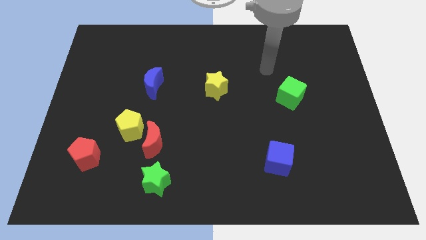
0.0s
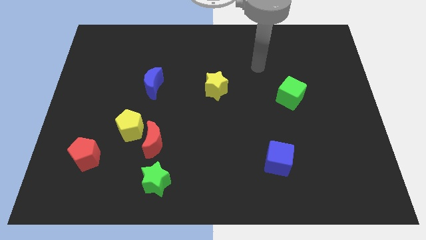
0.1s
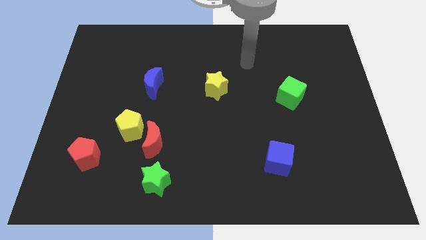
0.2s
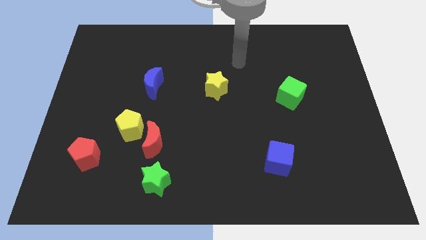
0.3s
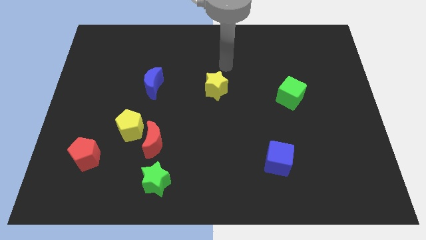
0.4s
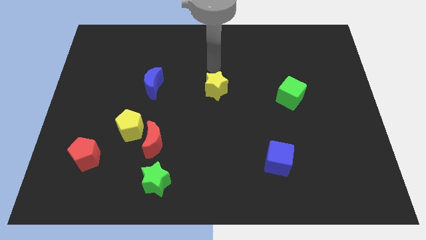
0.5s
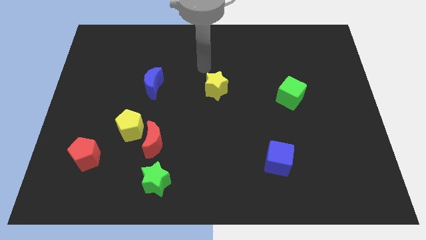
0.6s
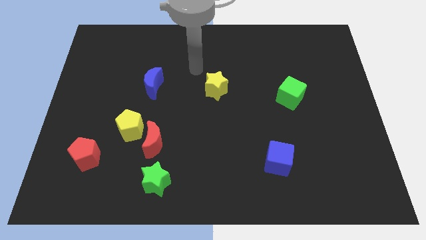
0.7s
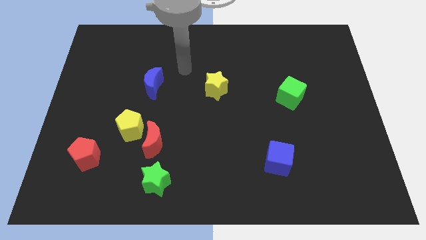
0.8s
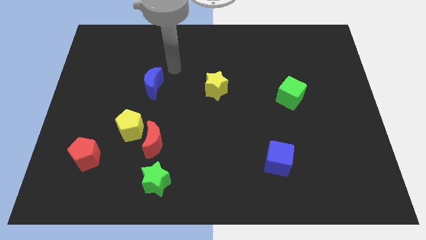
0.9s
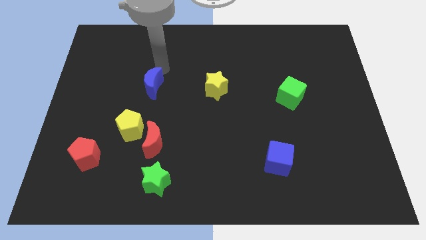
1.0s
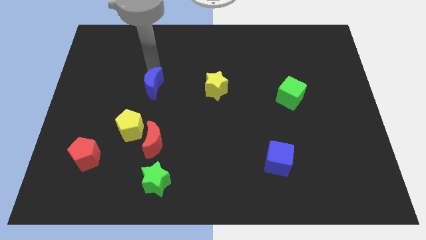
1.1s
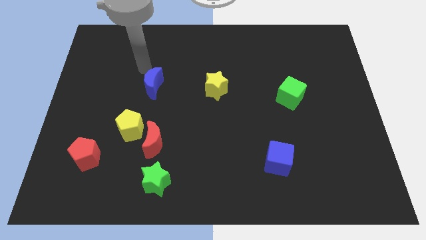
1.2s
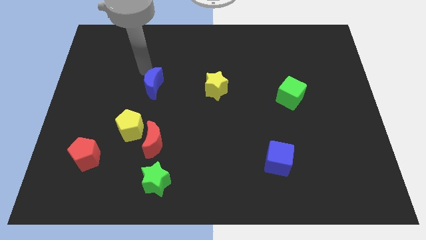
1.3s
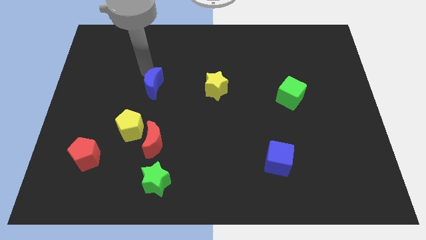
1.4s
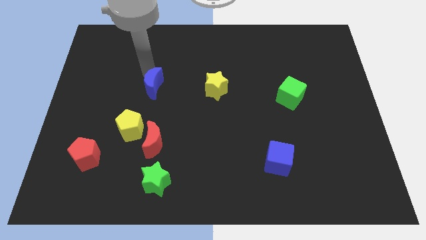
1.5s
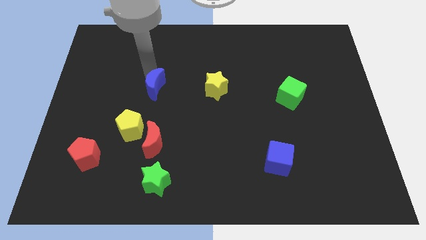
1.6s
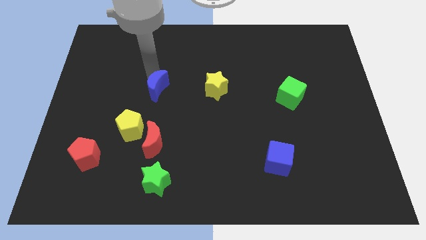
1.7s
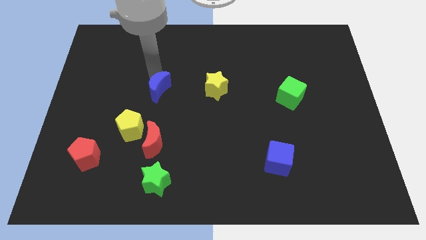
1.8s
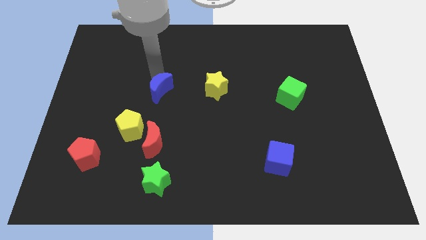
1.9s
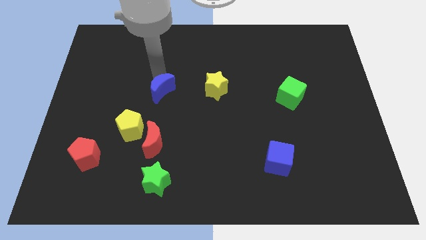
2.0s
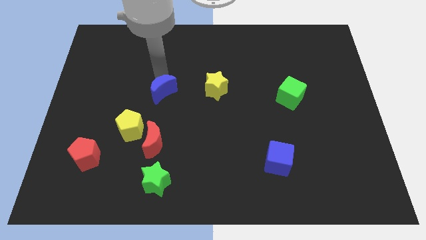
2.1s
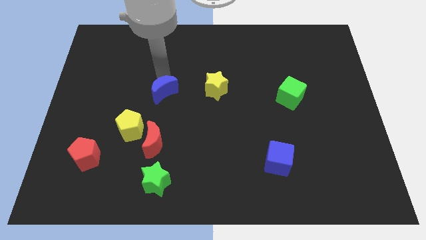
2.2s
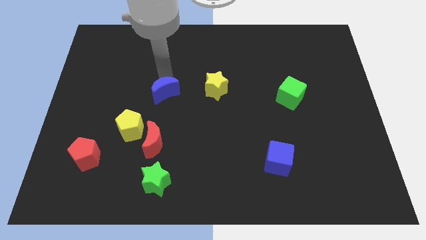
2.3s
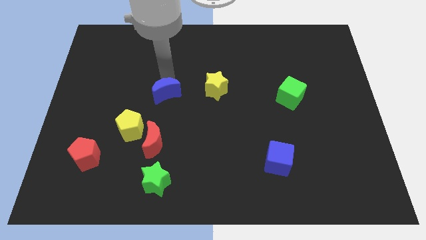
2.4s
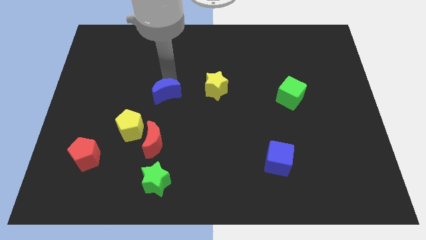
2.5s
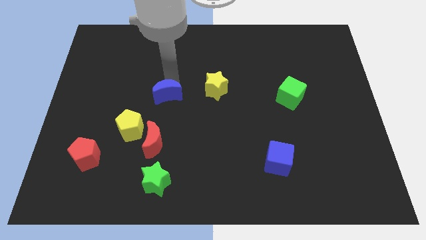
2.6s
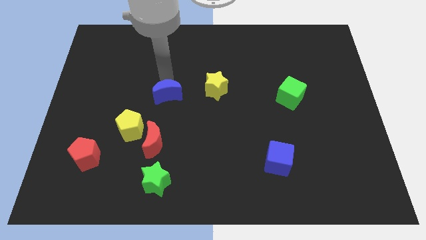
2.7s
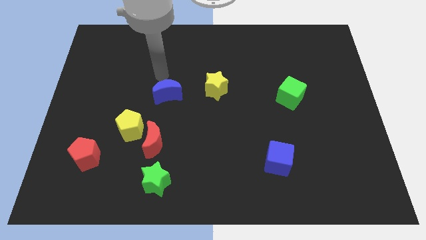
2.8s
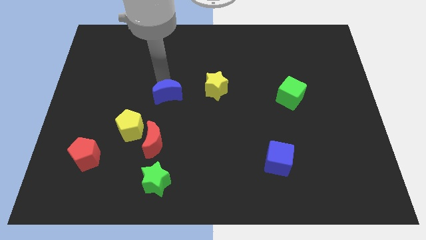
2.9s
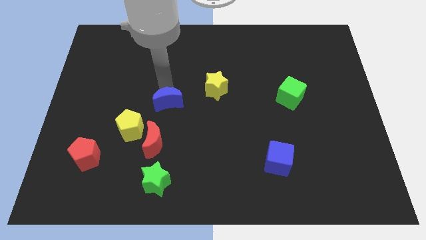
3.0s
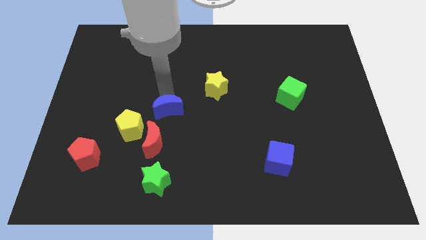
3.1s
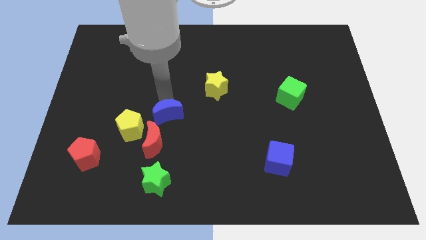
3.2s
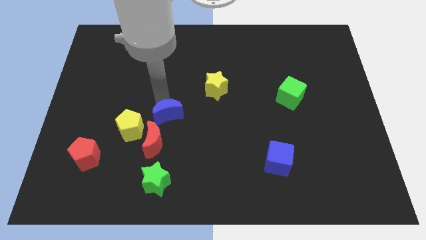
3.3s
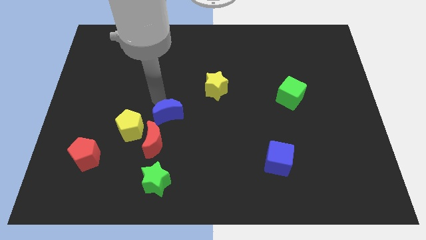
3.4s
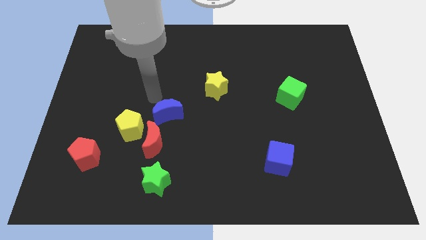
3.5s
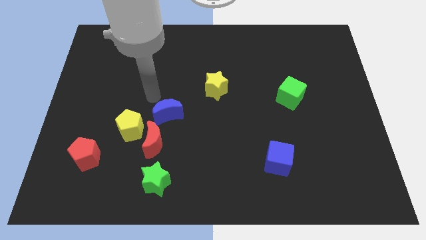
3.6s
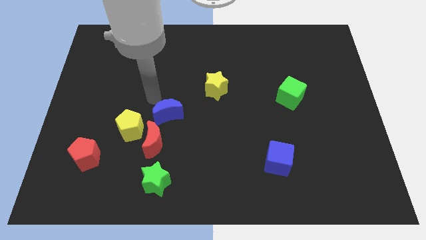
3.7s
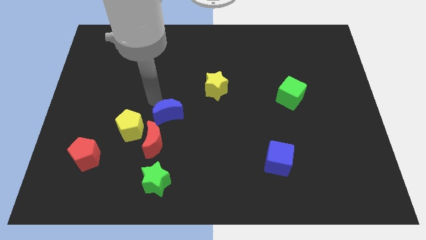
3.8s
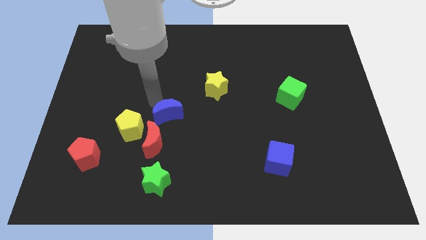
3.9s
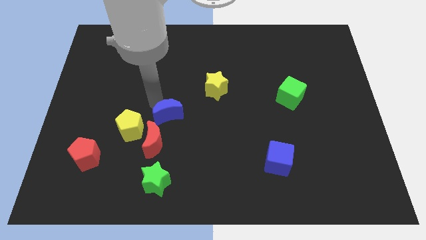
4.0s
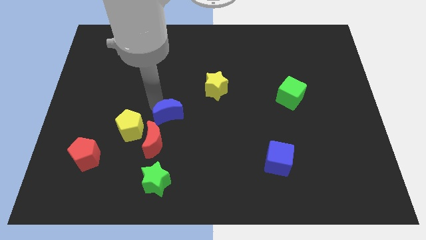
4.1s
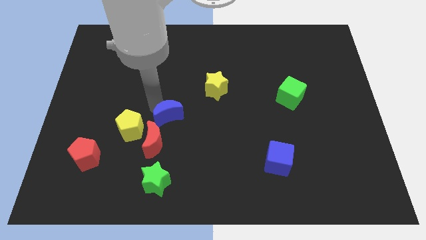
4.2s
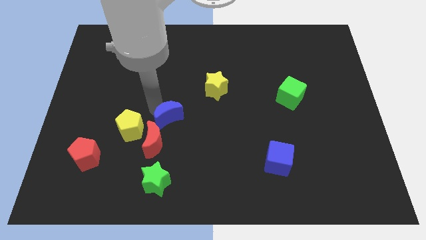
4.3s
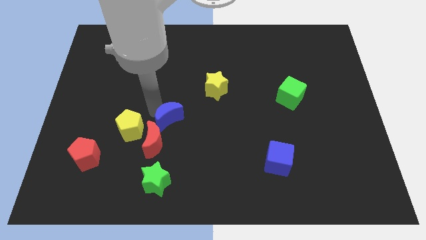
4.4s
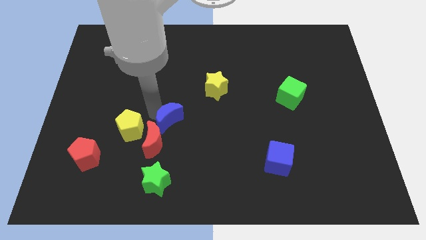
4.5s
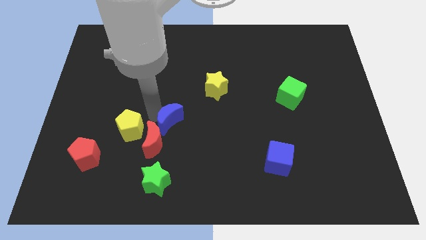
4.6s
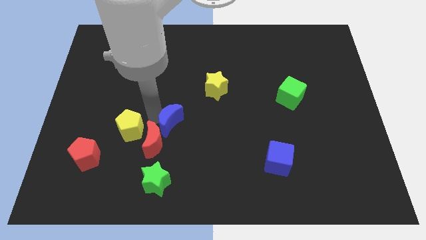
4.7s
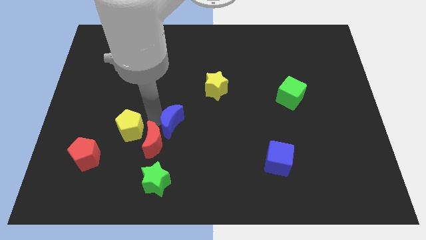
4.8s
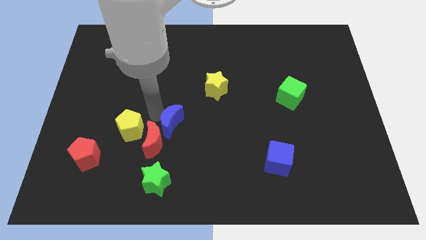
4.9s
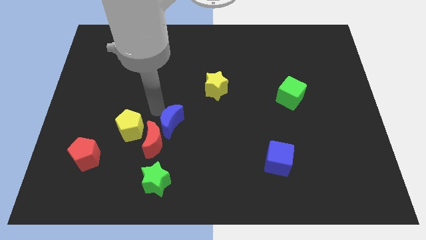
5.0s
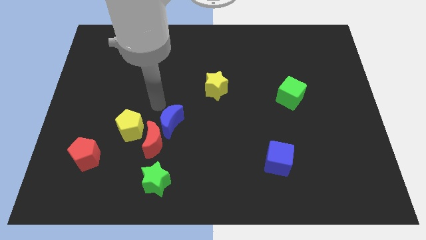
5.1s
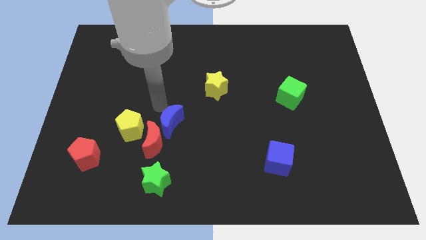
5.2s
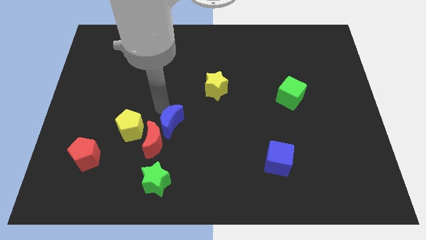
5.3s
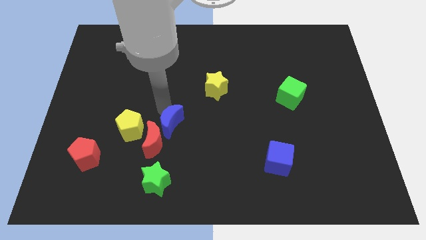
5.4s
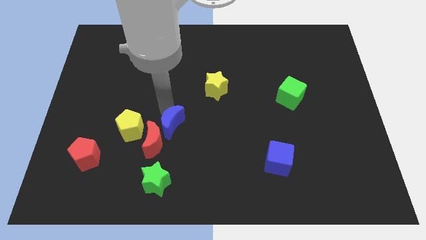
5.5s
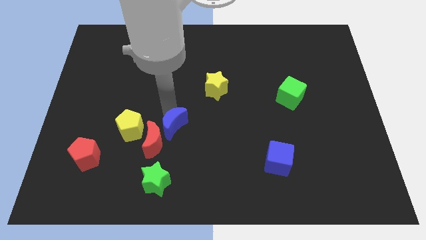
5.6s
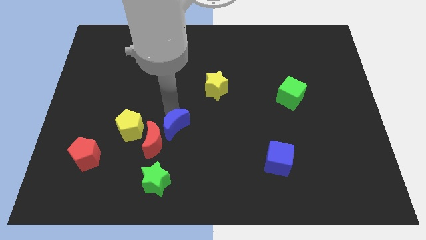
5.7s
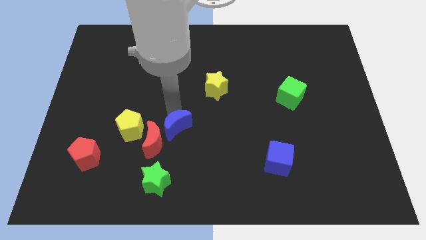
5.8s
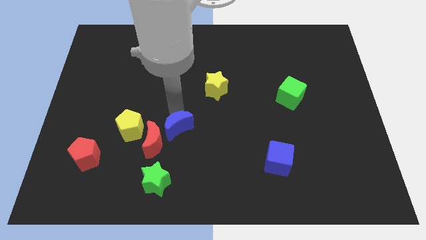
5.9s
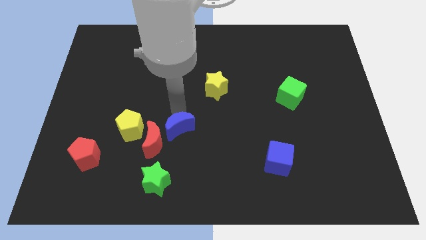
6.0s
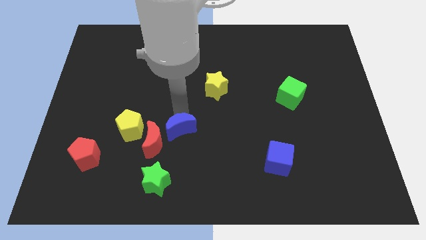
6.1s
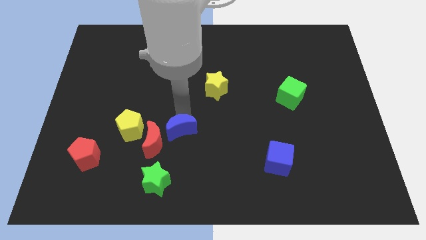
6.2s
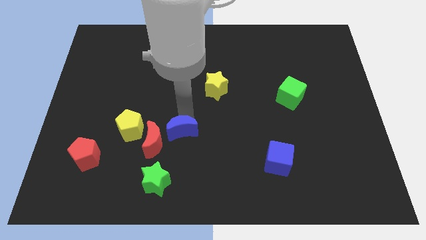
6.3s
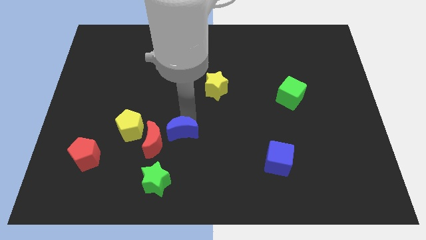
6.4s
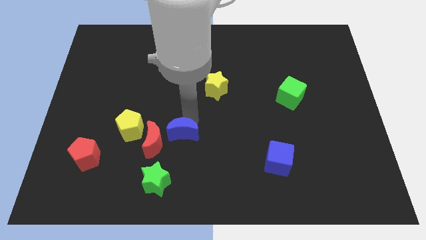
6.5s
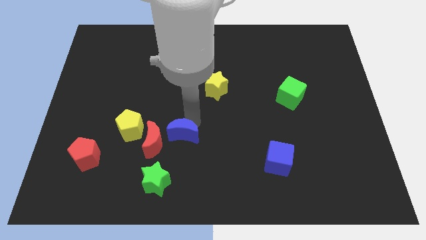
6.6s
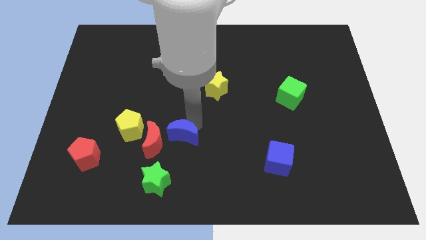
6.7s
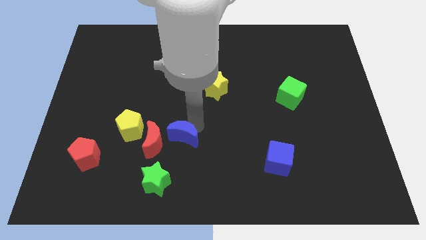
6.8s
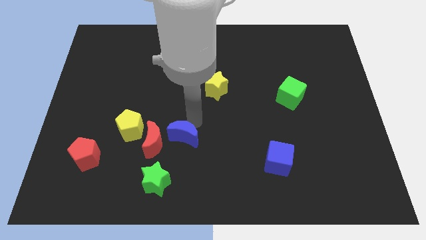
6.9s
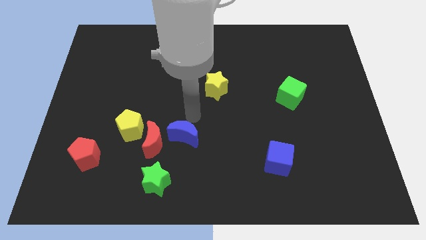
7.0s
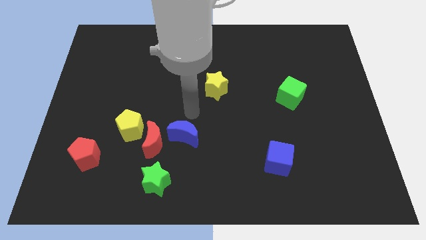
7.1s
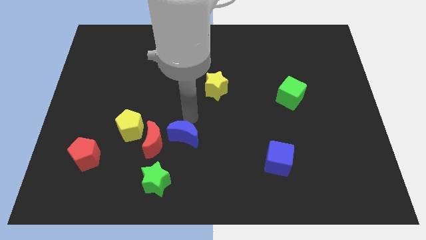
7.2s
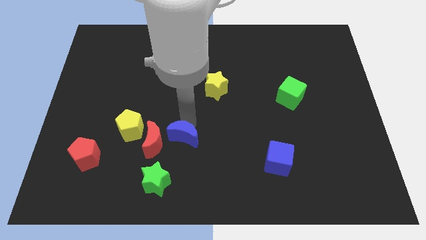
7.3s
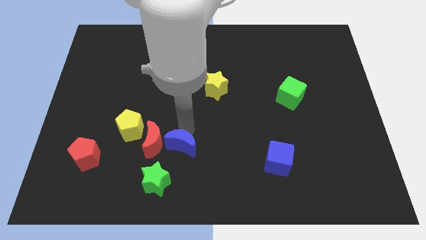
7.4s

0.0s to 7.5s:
put the blue moon diagonally down and to the right of the red moon
